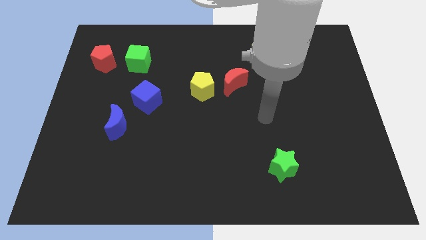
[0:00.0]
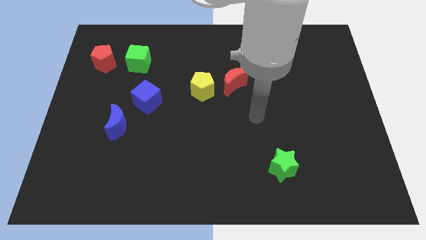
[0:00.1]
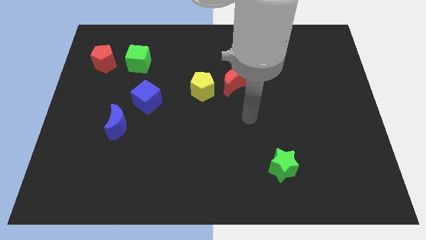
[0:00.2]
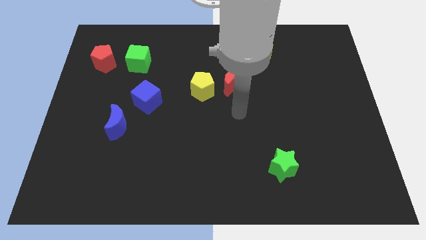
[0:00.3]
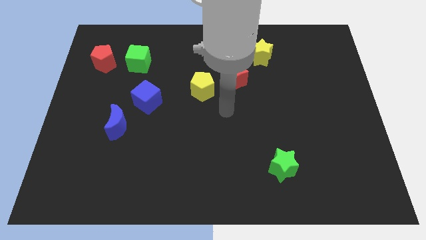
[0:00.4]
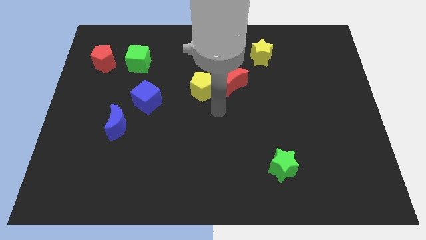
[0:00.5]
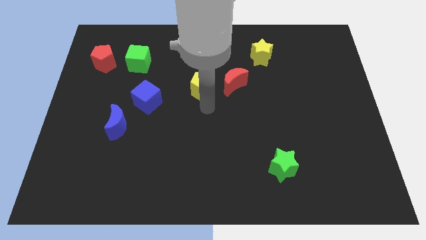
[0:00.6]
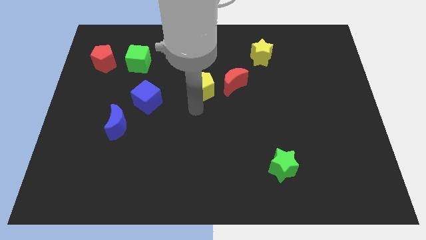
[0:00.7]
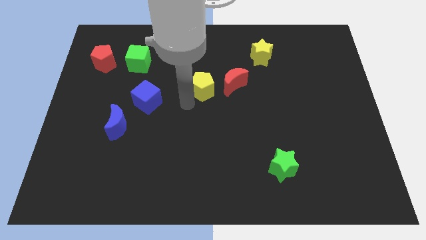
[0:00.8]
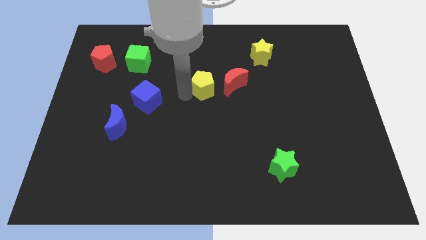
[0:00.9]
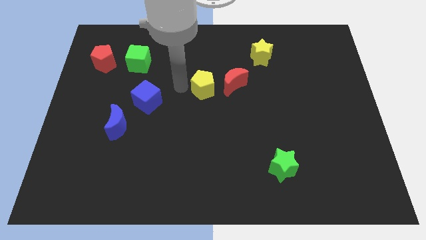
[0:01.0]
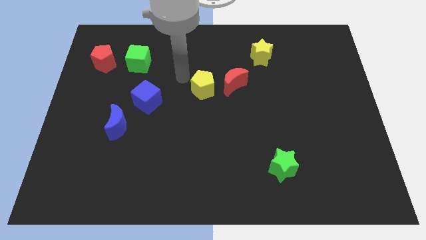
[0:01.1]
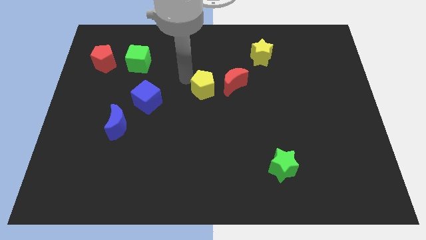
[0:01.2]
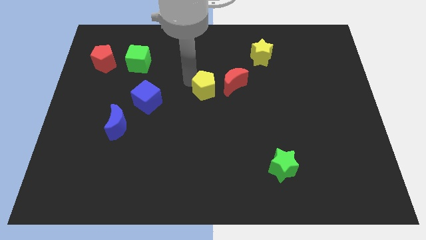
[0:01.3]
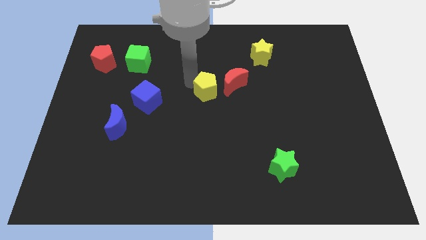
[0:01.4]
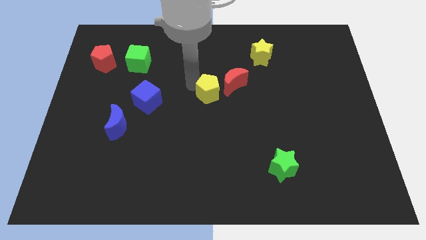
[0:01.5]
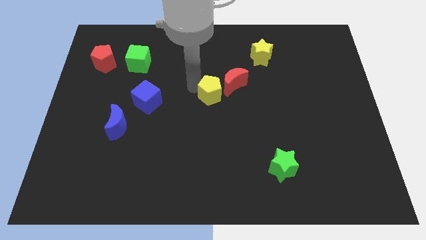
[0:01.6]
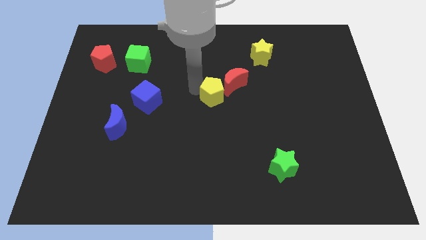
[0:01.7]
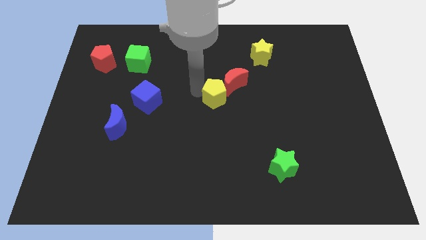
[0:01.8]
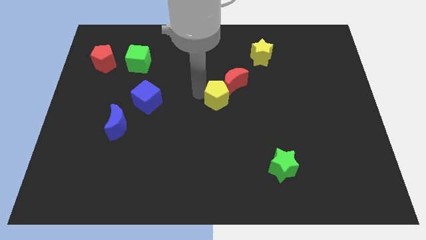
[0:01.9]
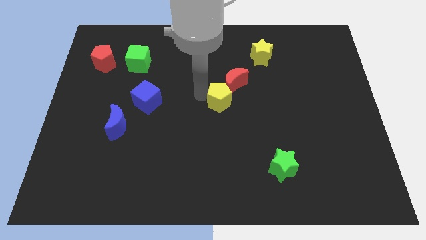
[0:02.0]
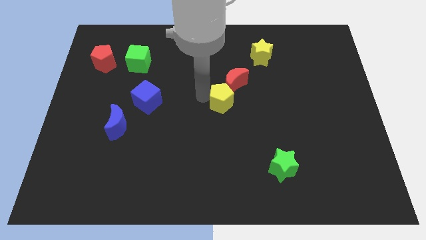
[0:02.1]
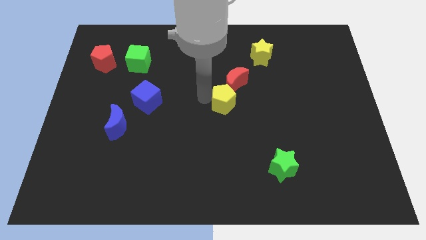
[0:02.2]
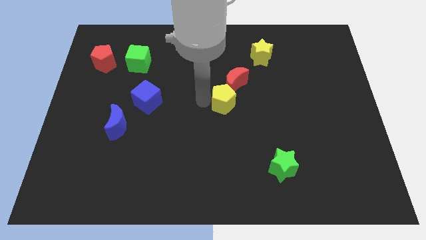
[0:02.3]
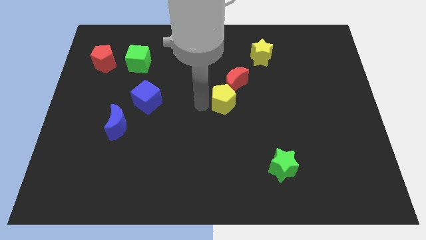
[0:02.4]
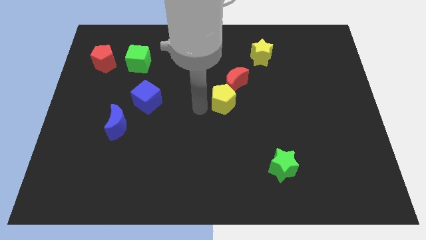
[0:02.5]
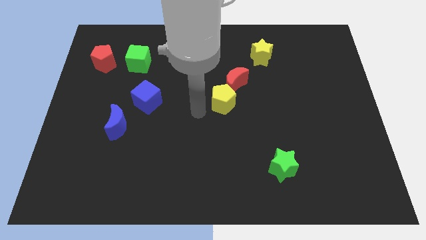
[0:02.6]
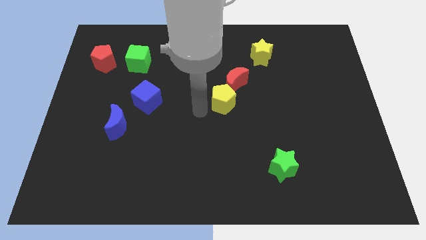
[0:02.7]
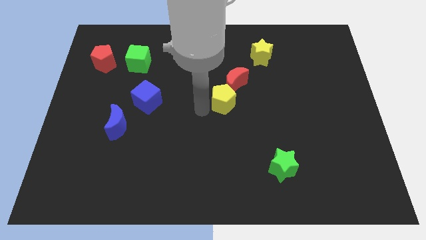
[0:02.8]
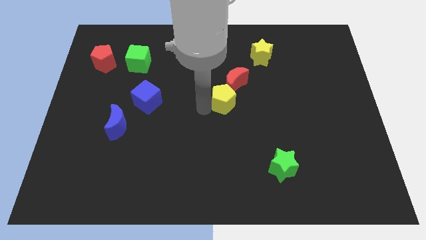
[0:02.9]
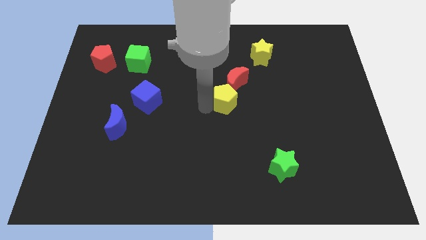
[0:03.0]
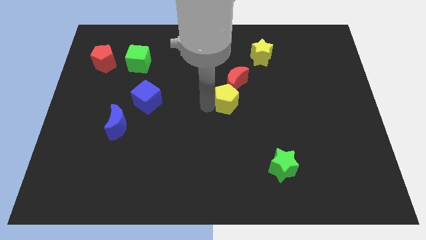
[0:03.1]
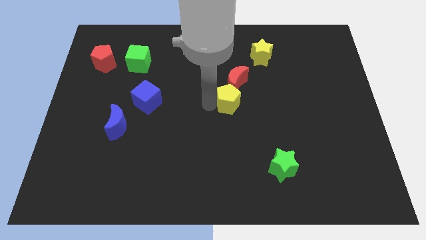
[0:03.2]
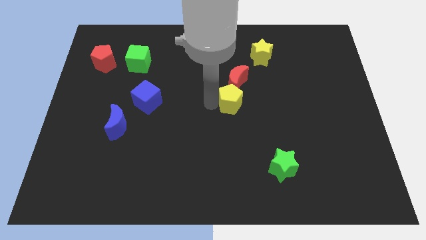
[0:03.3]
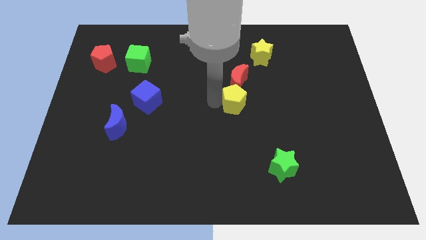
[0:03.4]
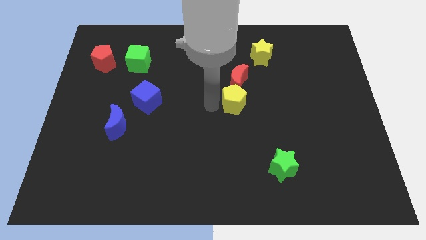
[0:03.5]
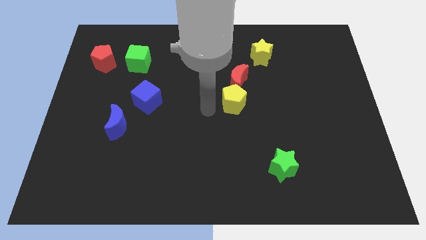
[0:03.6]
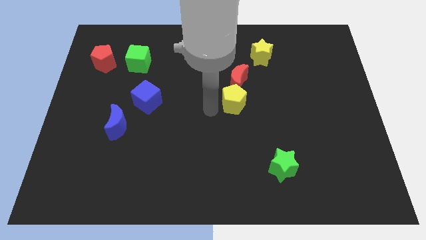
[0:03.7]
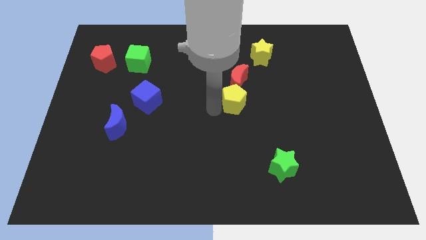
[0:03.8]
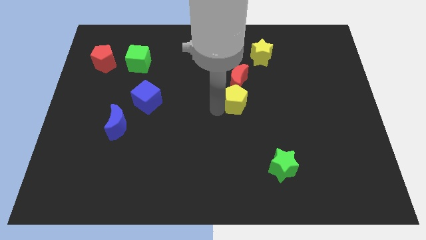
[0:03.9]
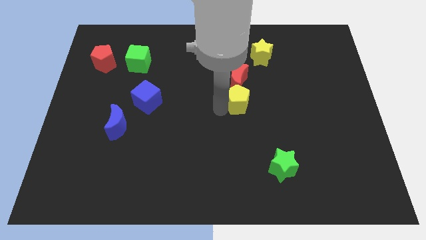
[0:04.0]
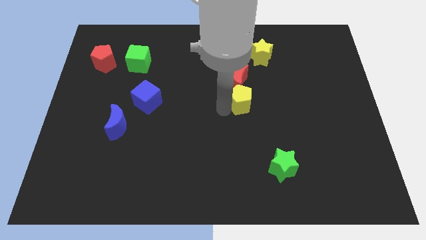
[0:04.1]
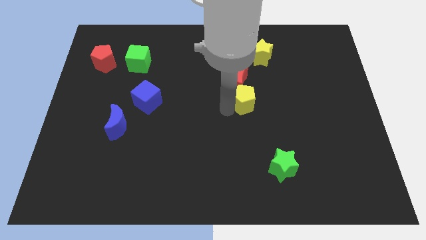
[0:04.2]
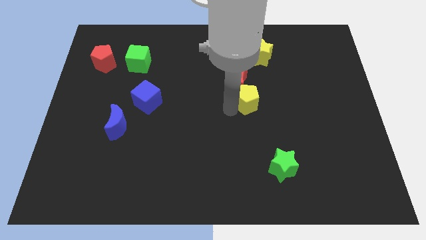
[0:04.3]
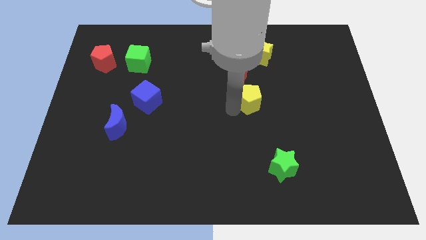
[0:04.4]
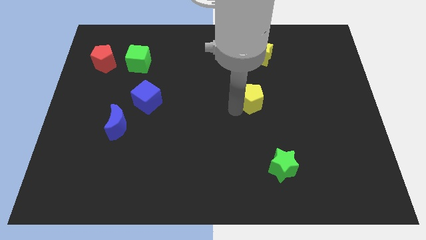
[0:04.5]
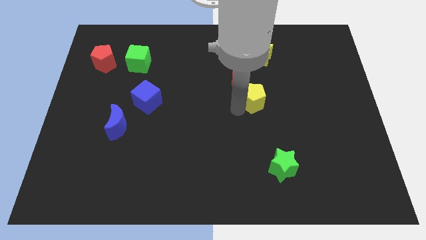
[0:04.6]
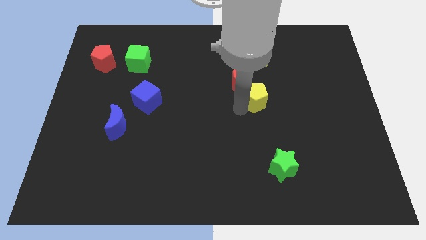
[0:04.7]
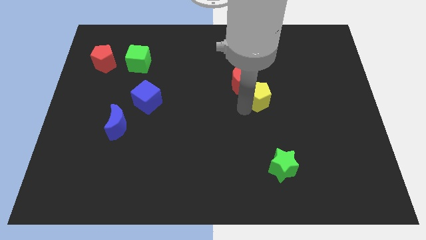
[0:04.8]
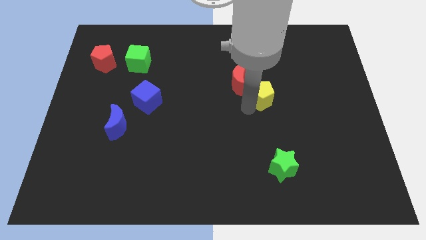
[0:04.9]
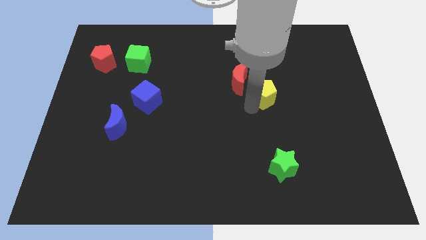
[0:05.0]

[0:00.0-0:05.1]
slide the yellow pentagon just right of the red moon

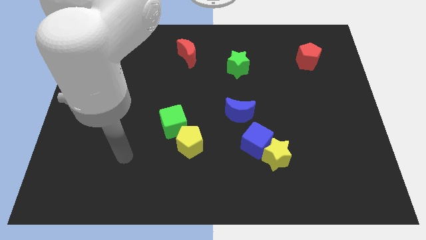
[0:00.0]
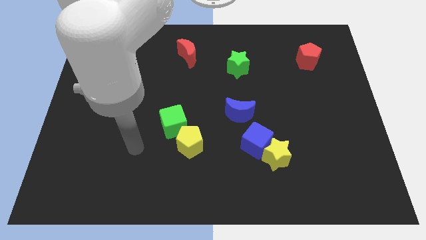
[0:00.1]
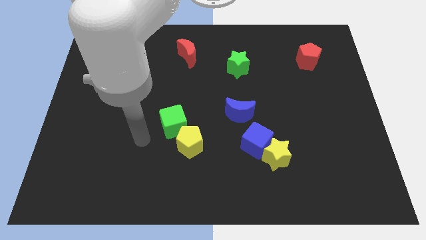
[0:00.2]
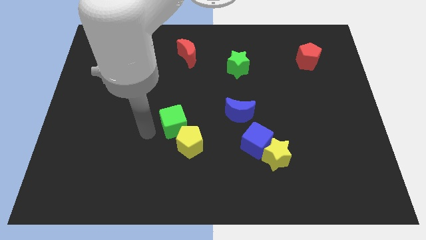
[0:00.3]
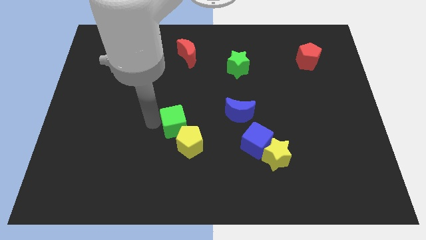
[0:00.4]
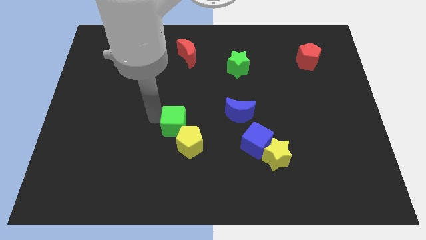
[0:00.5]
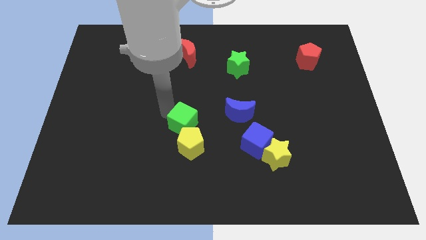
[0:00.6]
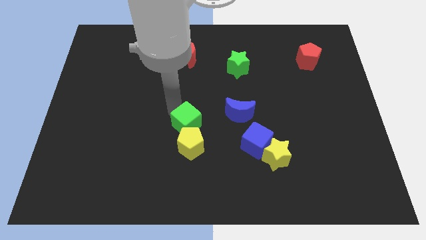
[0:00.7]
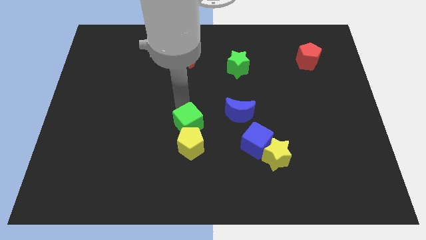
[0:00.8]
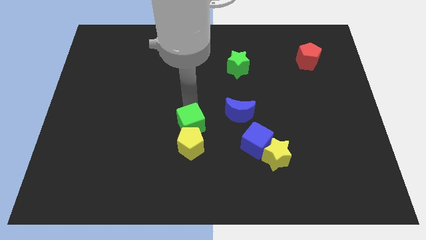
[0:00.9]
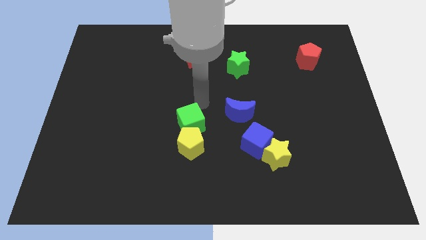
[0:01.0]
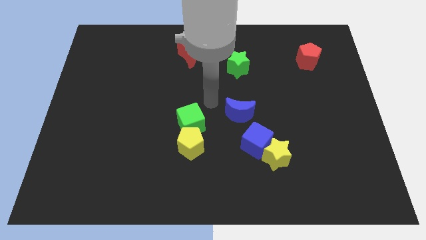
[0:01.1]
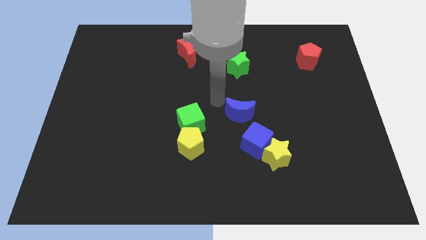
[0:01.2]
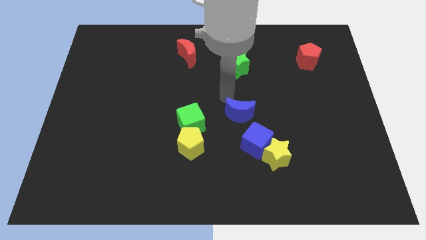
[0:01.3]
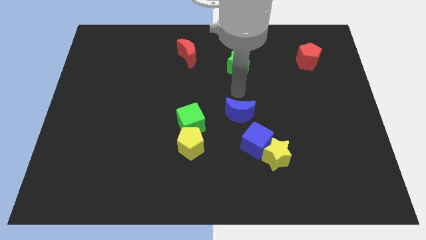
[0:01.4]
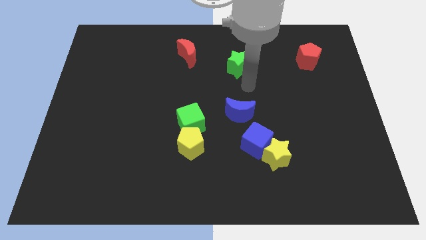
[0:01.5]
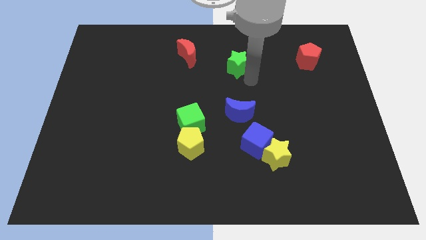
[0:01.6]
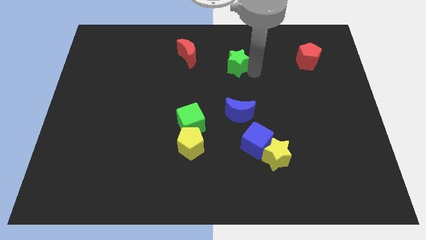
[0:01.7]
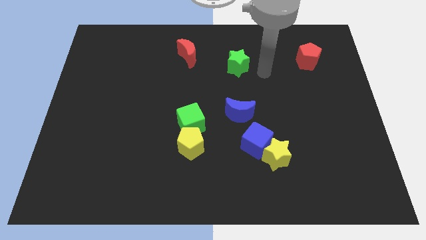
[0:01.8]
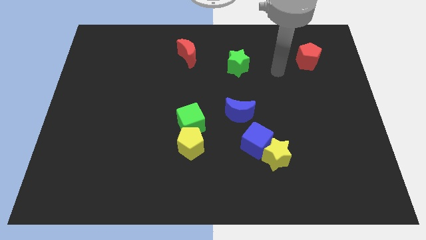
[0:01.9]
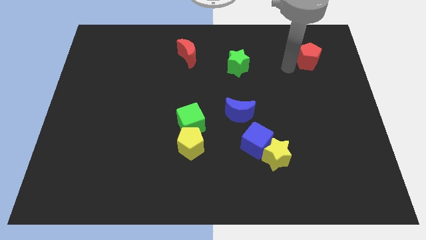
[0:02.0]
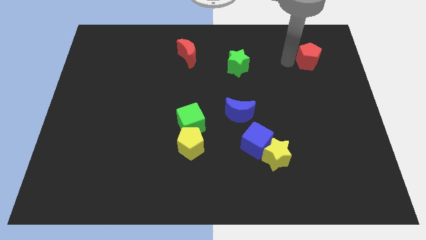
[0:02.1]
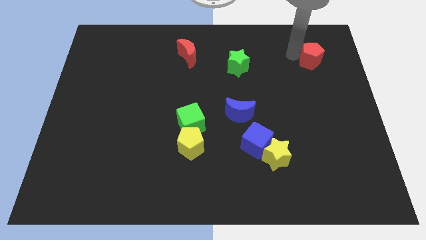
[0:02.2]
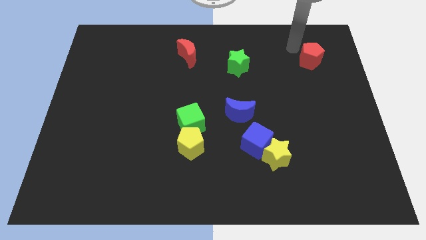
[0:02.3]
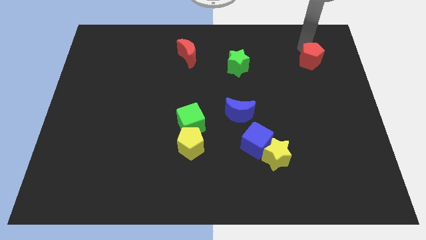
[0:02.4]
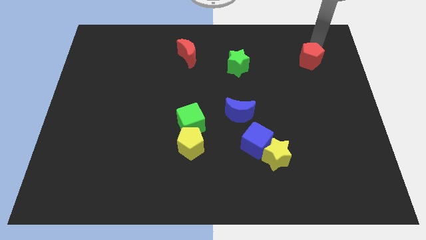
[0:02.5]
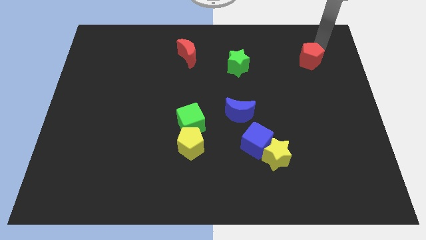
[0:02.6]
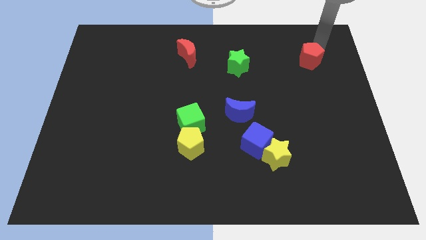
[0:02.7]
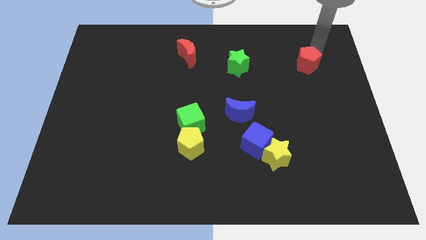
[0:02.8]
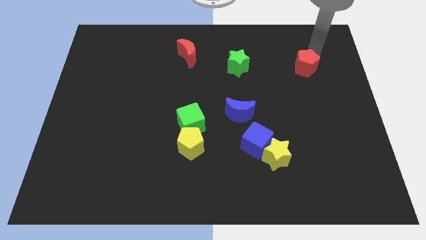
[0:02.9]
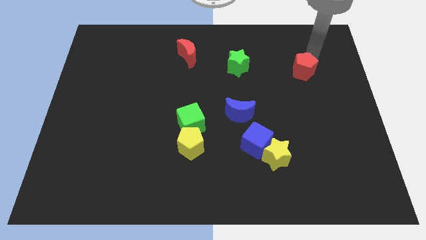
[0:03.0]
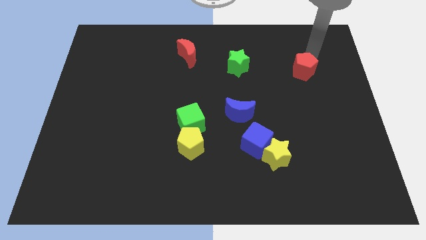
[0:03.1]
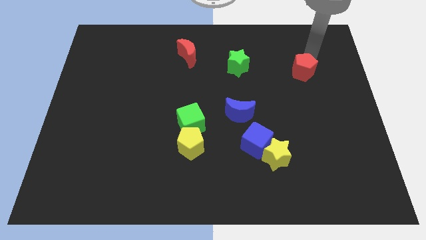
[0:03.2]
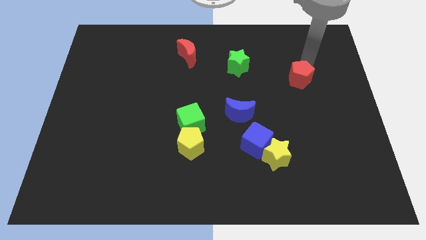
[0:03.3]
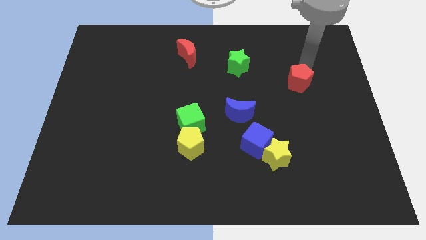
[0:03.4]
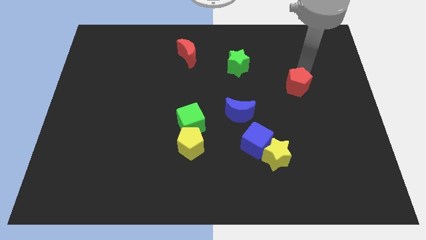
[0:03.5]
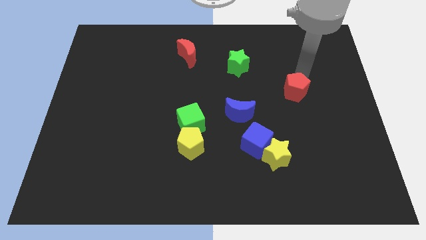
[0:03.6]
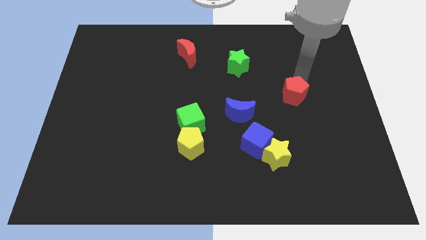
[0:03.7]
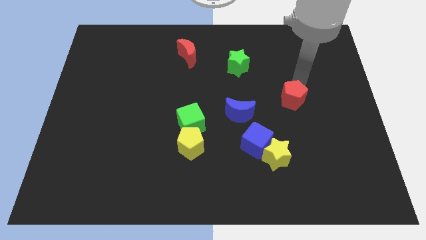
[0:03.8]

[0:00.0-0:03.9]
move the red pentagon to the right of the blue moon
